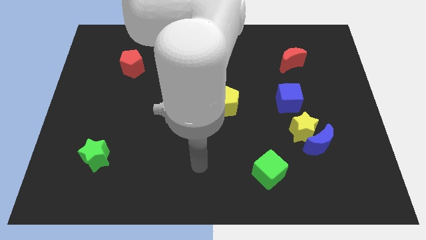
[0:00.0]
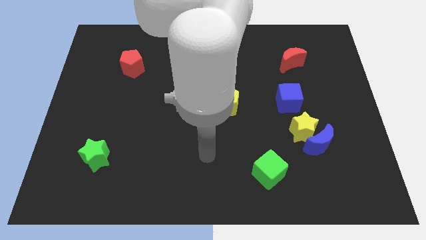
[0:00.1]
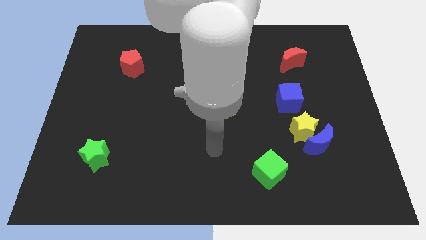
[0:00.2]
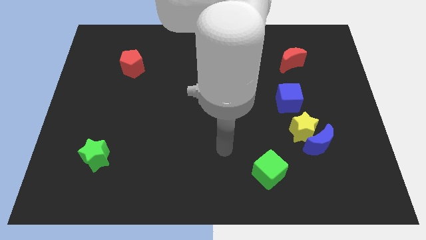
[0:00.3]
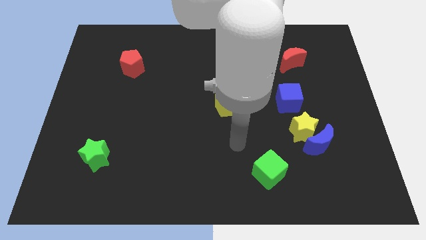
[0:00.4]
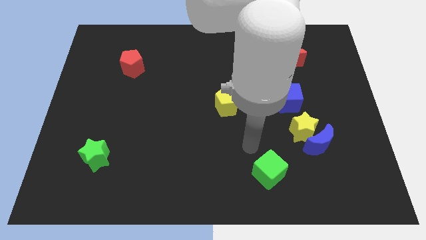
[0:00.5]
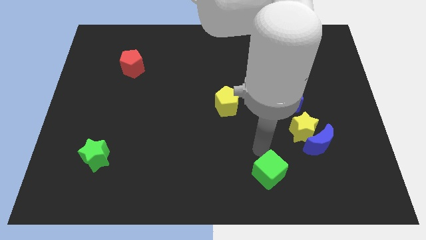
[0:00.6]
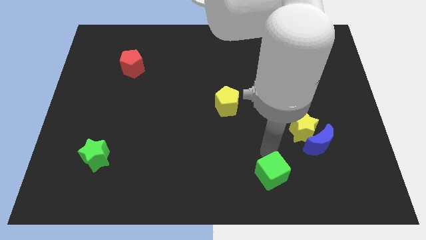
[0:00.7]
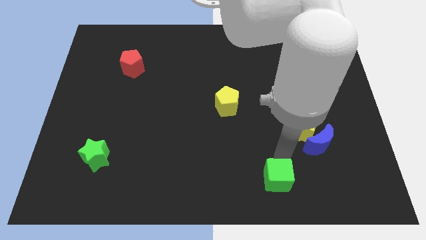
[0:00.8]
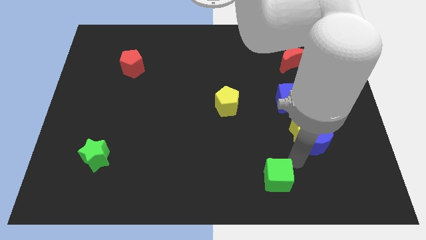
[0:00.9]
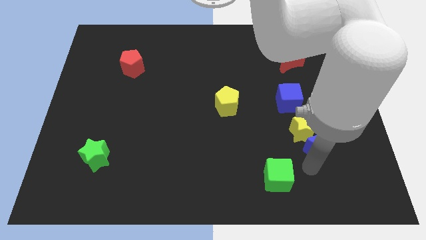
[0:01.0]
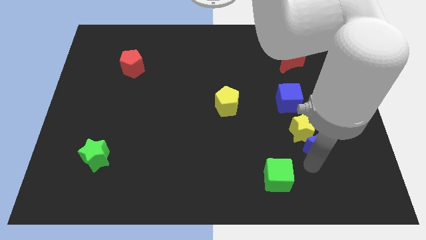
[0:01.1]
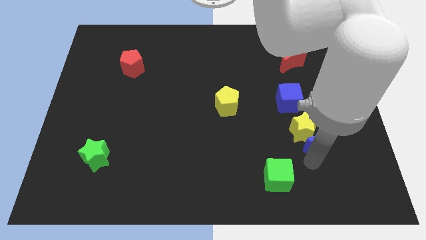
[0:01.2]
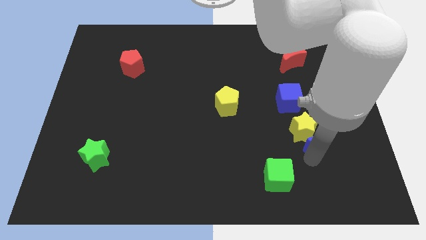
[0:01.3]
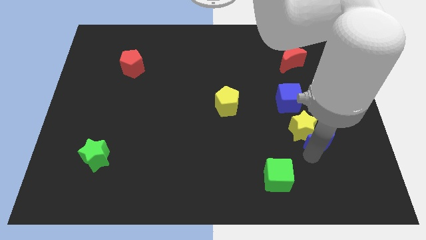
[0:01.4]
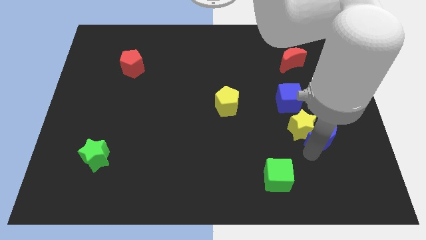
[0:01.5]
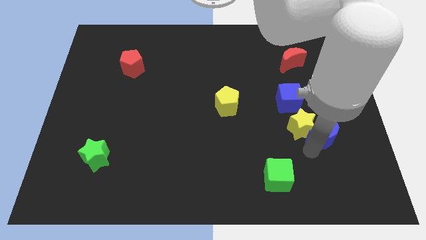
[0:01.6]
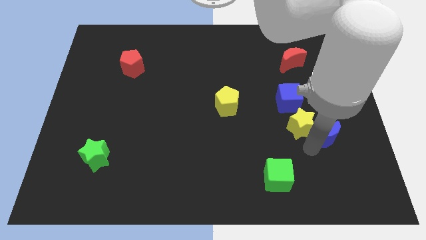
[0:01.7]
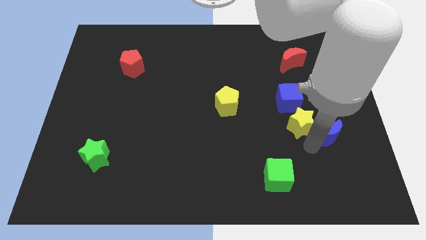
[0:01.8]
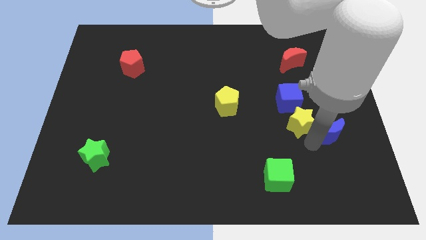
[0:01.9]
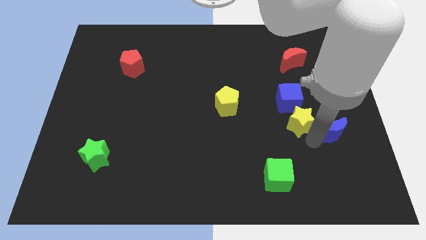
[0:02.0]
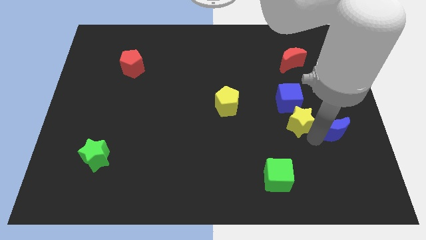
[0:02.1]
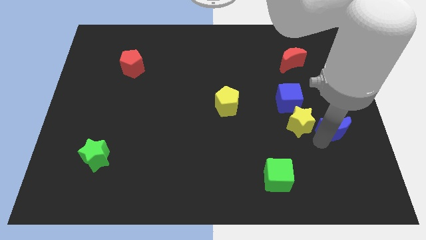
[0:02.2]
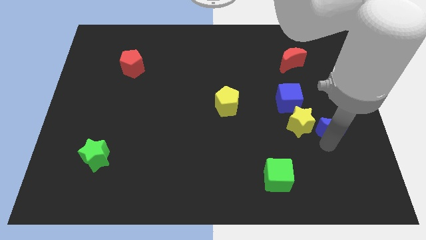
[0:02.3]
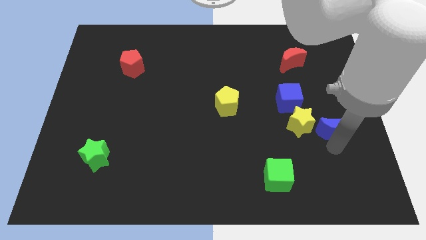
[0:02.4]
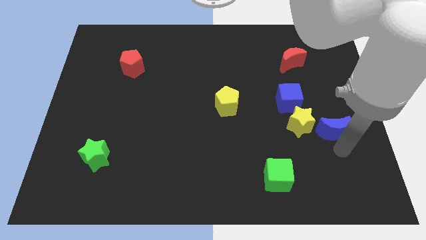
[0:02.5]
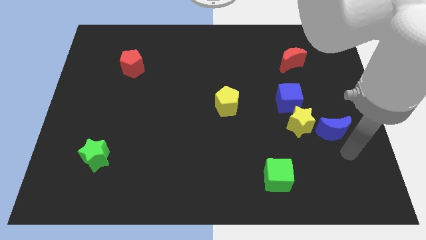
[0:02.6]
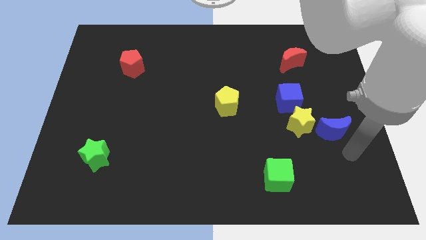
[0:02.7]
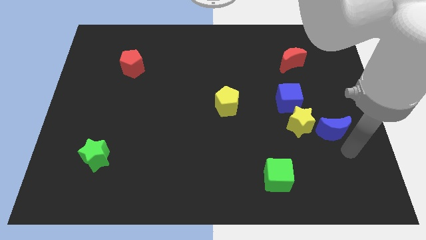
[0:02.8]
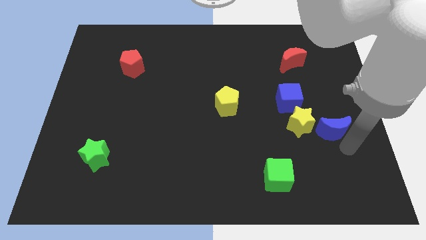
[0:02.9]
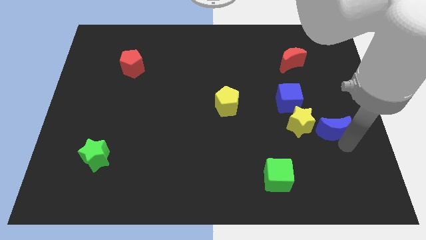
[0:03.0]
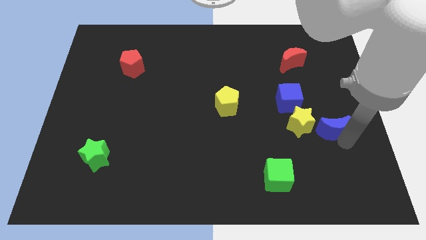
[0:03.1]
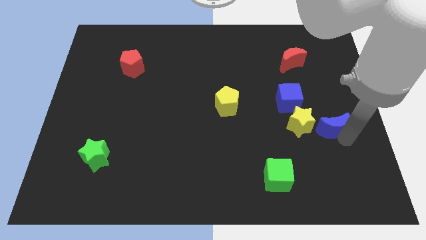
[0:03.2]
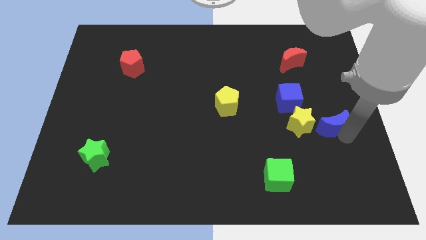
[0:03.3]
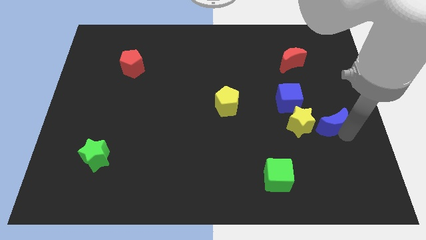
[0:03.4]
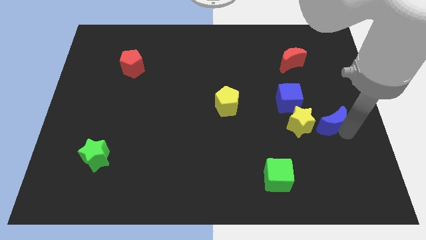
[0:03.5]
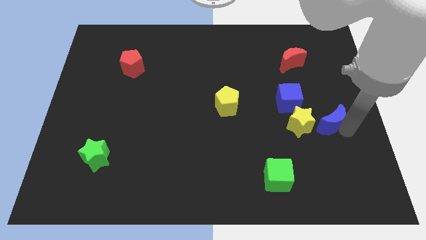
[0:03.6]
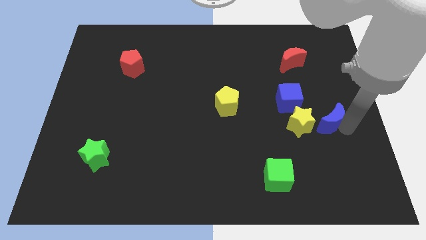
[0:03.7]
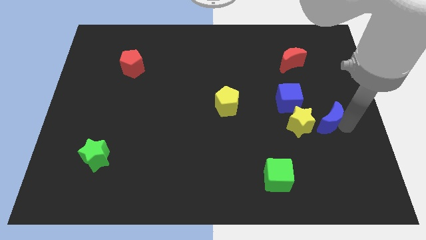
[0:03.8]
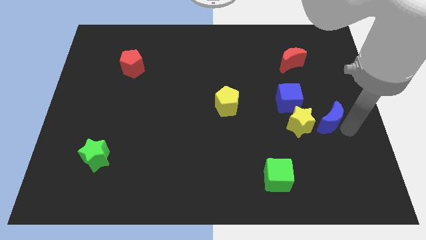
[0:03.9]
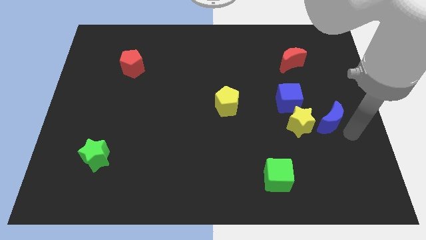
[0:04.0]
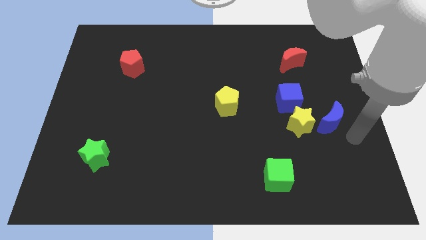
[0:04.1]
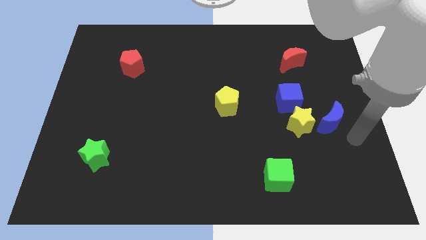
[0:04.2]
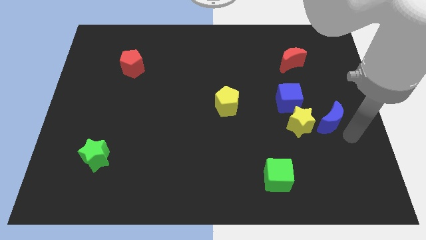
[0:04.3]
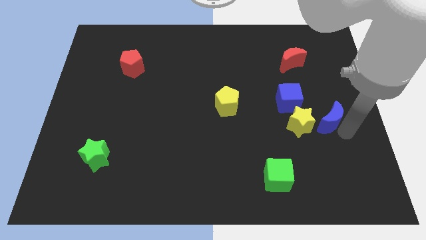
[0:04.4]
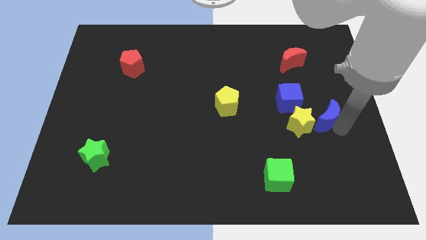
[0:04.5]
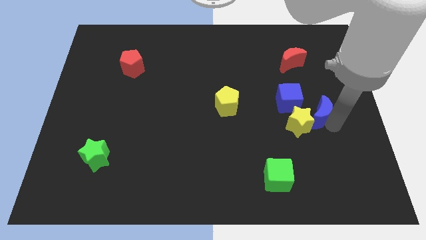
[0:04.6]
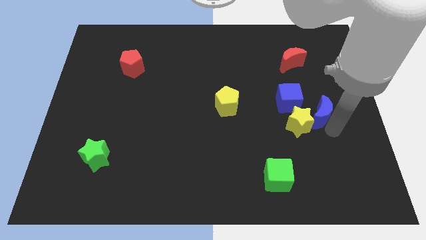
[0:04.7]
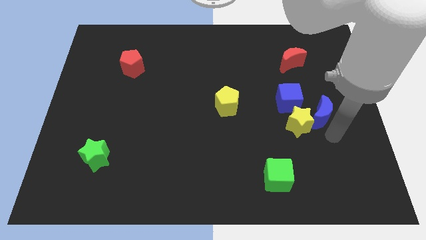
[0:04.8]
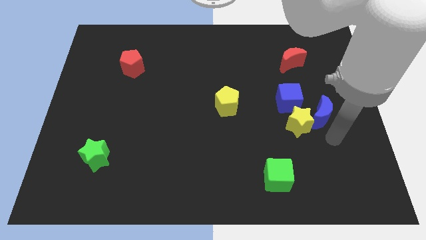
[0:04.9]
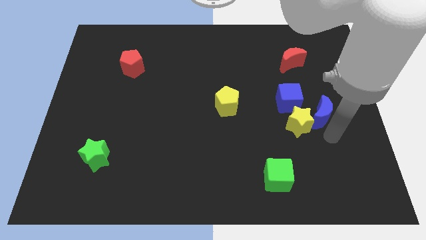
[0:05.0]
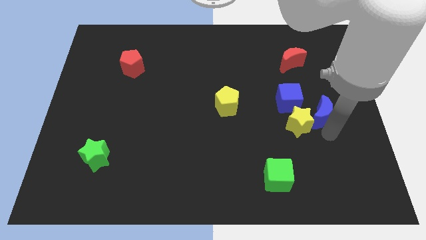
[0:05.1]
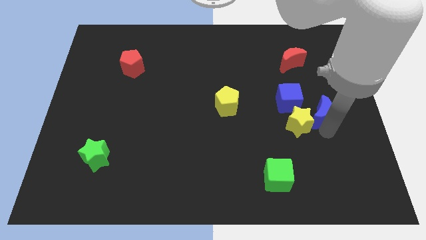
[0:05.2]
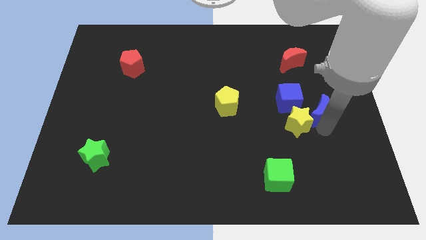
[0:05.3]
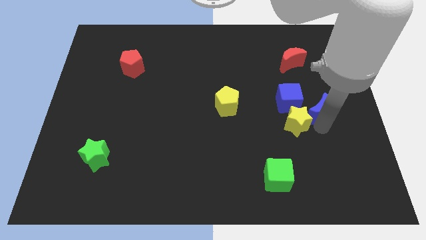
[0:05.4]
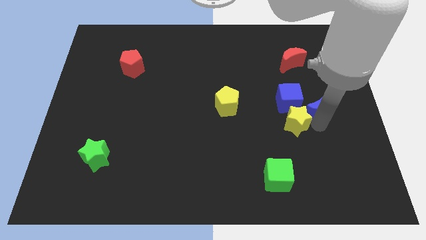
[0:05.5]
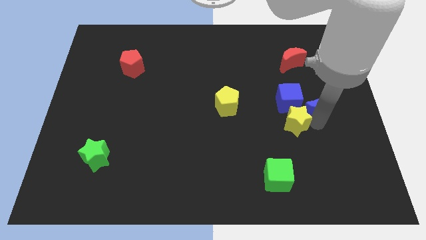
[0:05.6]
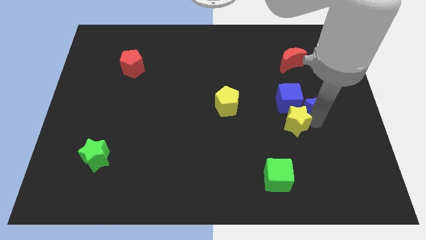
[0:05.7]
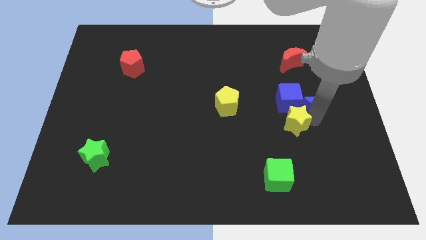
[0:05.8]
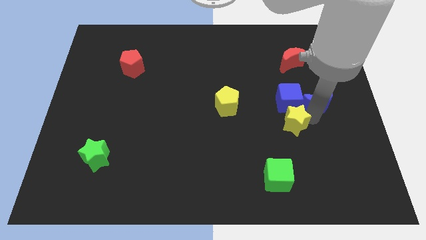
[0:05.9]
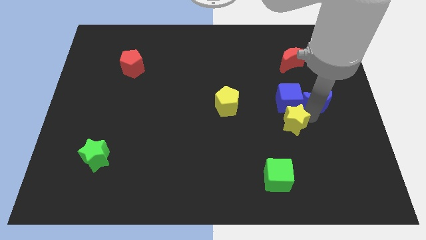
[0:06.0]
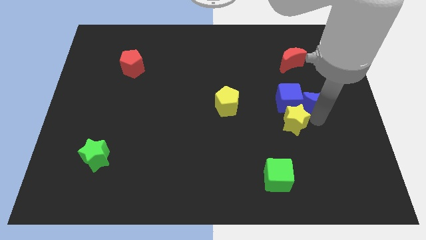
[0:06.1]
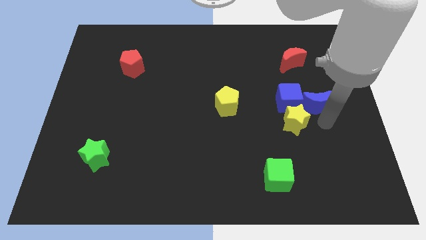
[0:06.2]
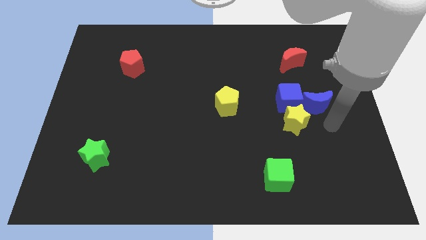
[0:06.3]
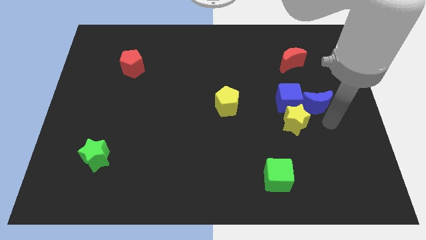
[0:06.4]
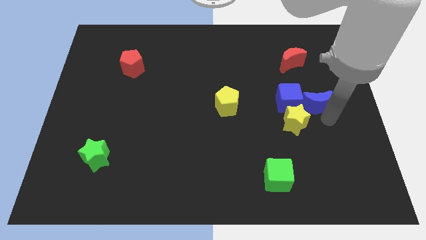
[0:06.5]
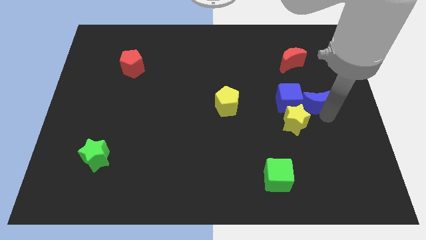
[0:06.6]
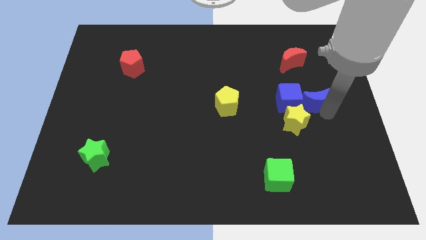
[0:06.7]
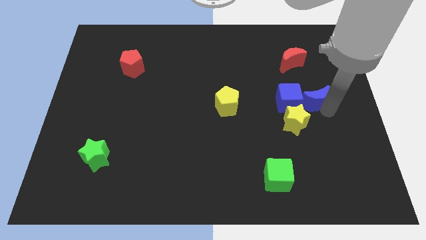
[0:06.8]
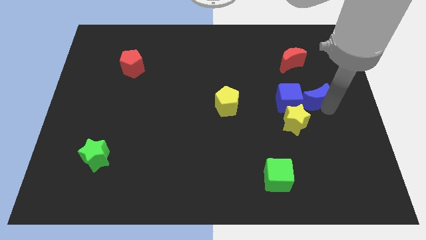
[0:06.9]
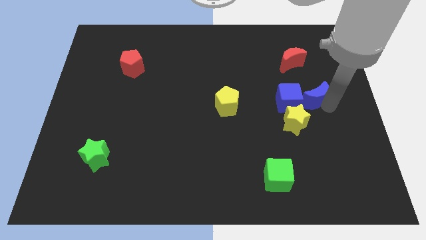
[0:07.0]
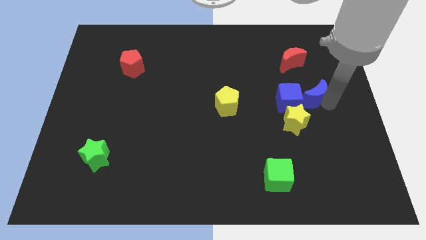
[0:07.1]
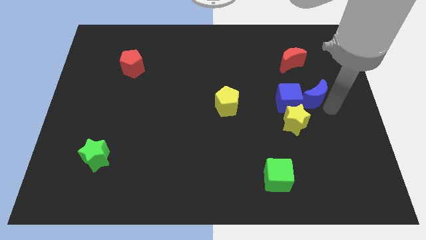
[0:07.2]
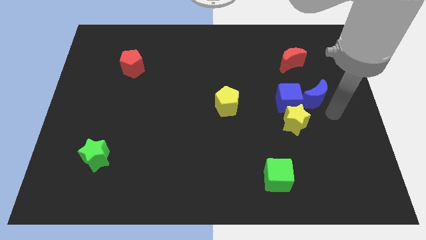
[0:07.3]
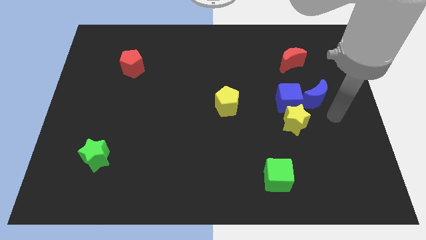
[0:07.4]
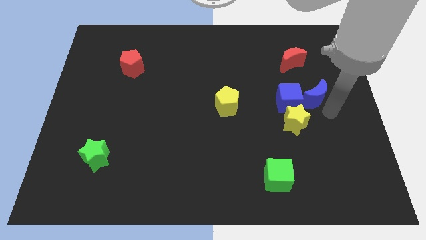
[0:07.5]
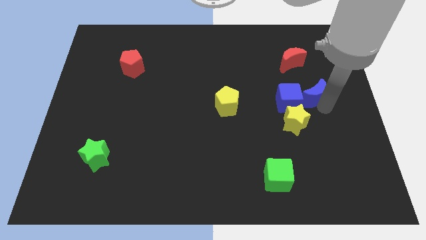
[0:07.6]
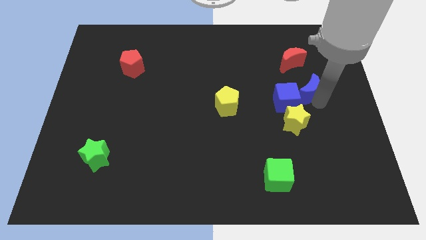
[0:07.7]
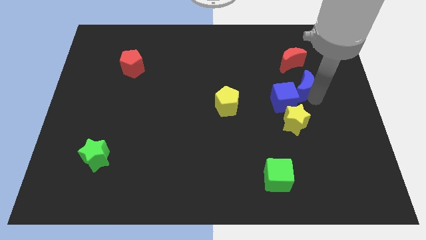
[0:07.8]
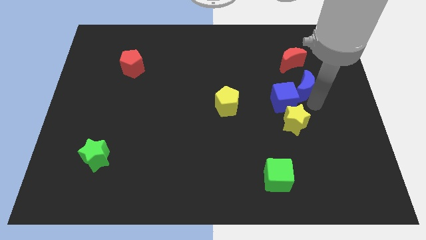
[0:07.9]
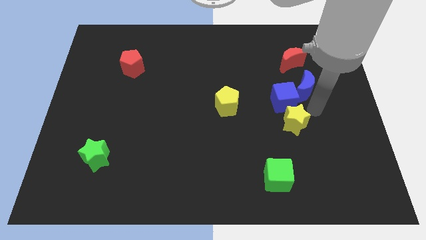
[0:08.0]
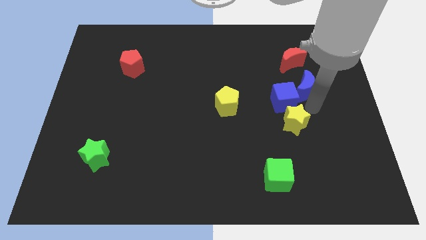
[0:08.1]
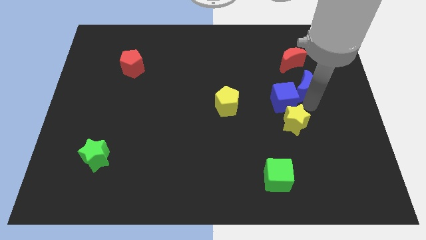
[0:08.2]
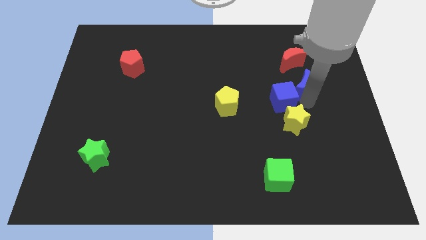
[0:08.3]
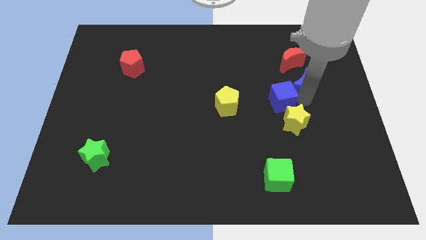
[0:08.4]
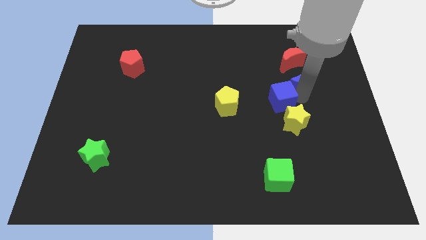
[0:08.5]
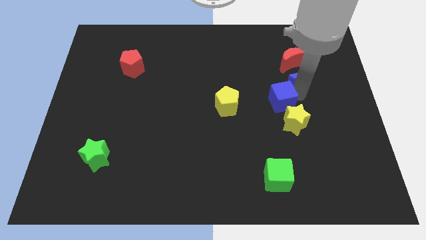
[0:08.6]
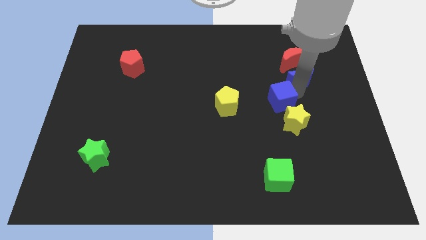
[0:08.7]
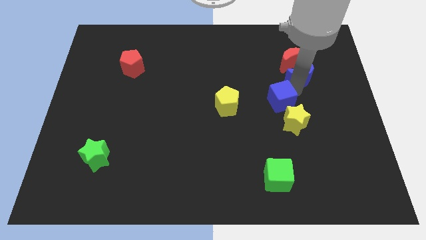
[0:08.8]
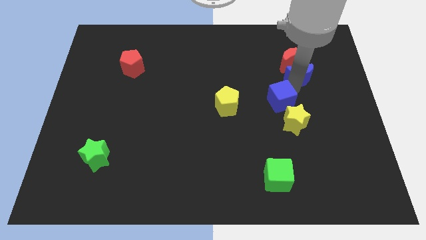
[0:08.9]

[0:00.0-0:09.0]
put the blue moon close to the red moon
